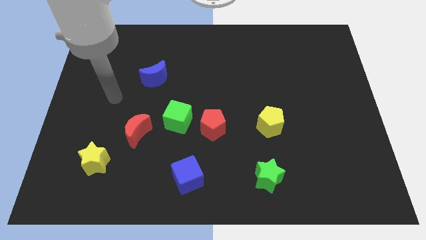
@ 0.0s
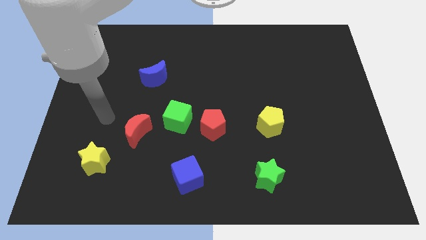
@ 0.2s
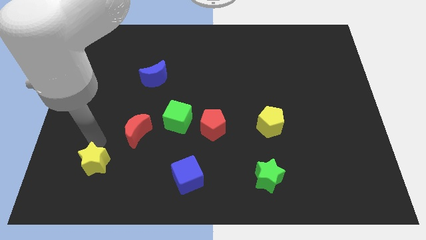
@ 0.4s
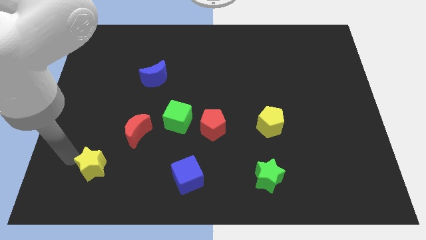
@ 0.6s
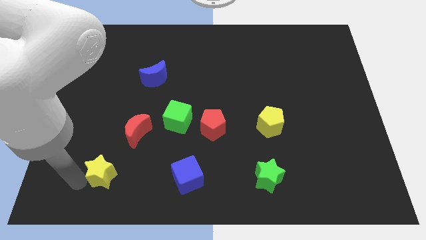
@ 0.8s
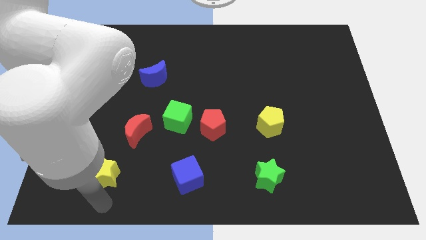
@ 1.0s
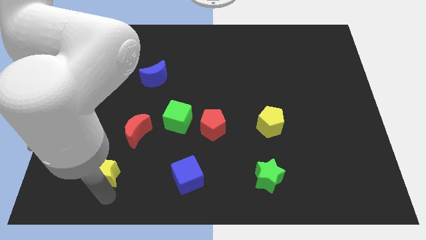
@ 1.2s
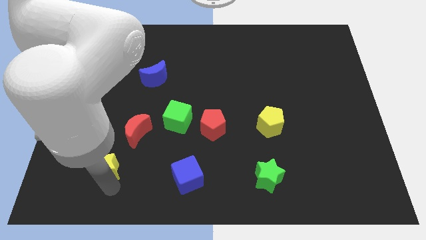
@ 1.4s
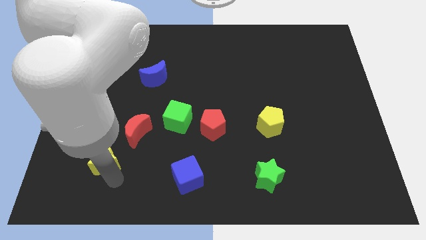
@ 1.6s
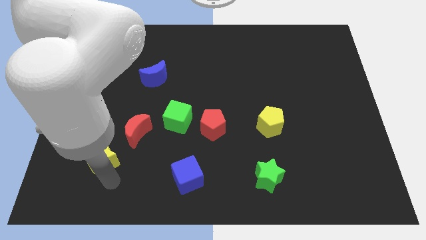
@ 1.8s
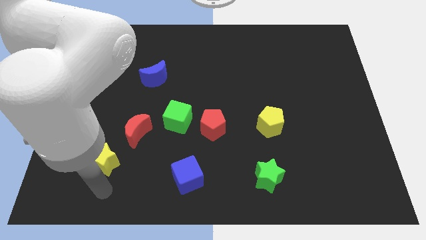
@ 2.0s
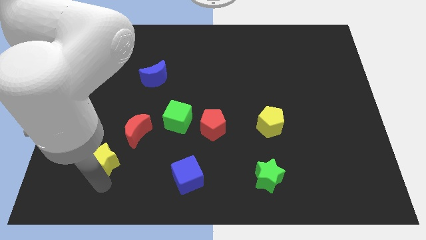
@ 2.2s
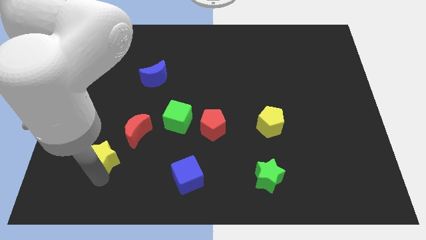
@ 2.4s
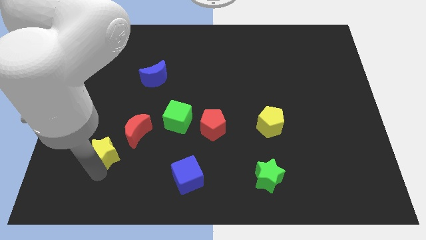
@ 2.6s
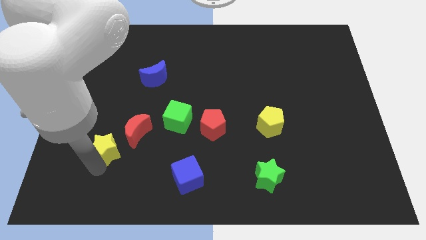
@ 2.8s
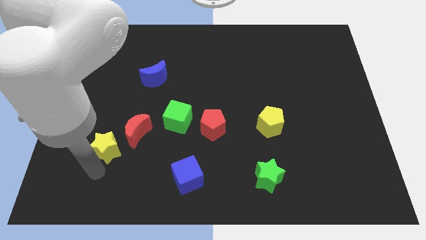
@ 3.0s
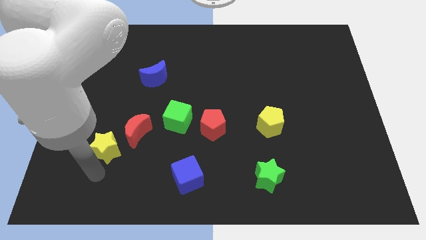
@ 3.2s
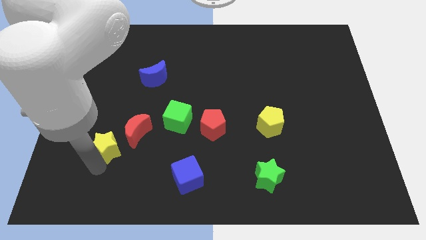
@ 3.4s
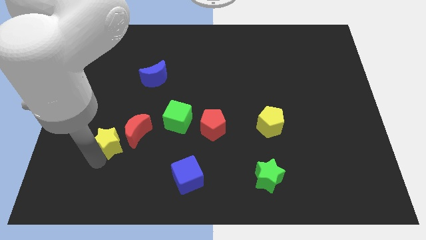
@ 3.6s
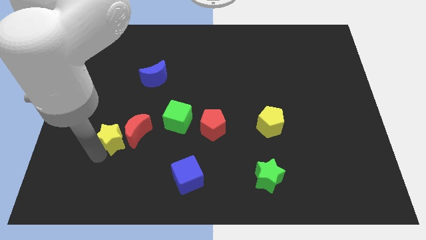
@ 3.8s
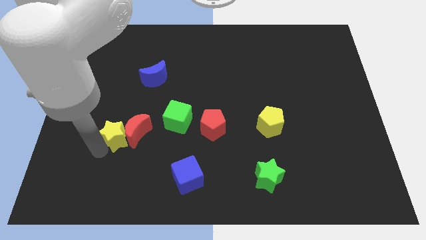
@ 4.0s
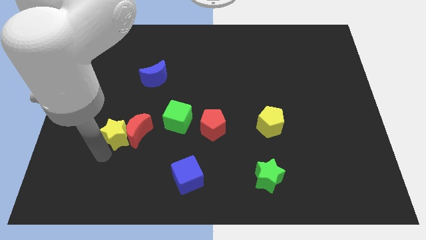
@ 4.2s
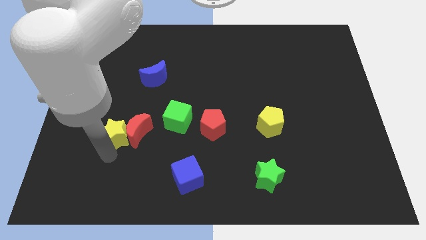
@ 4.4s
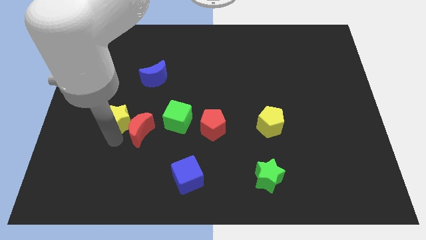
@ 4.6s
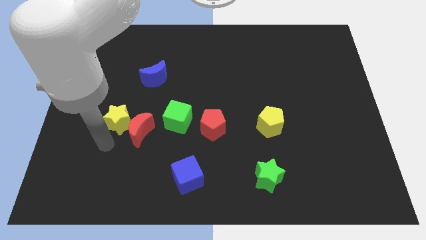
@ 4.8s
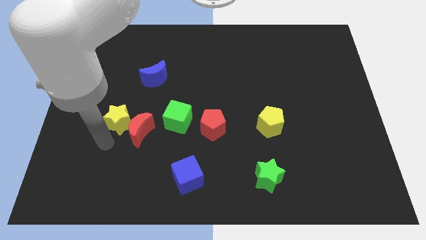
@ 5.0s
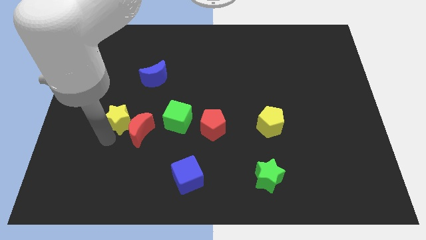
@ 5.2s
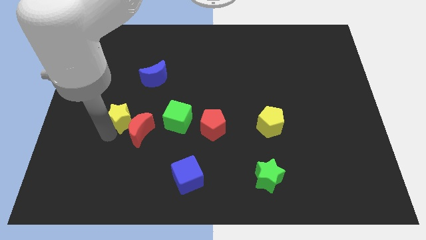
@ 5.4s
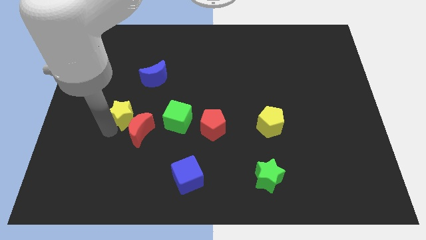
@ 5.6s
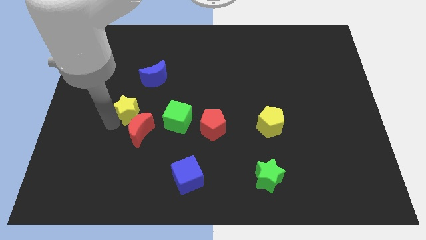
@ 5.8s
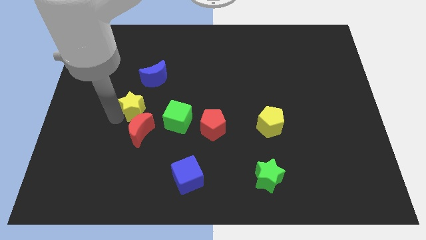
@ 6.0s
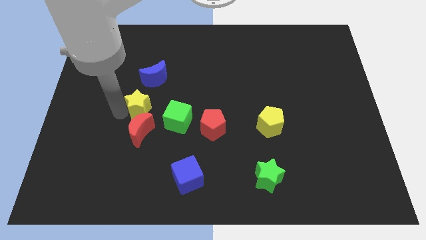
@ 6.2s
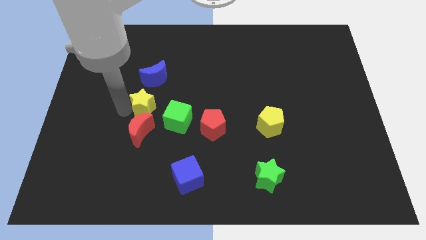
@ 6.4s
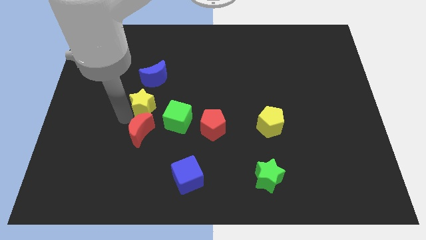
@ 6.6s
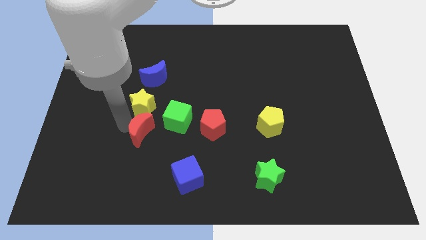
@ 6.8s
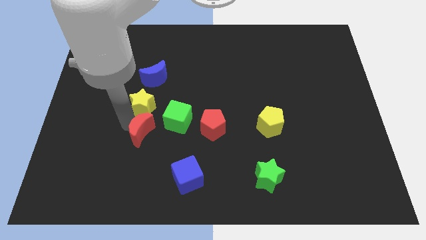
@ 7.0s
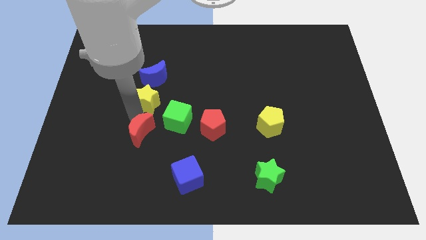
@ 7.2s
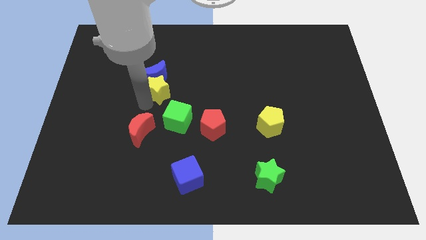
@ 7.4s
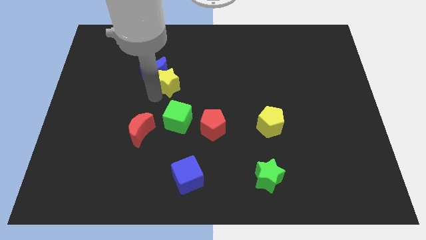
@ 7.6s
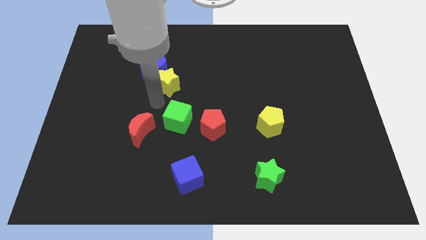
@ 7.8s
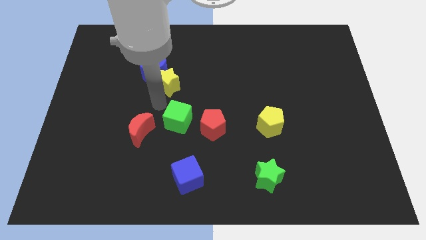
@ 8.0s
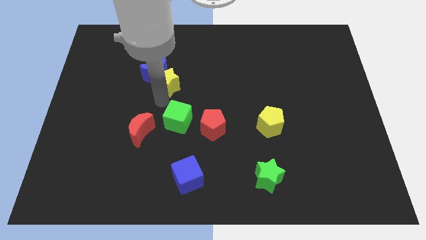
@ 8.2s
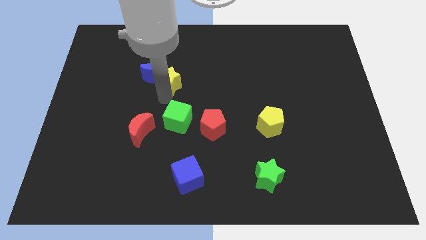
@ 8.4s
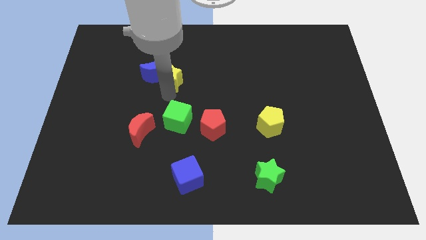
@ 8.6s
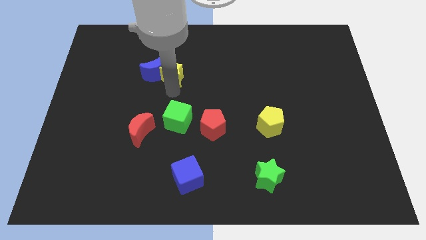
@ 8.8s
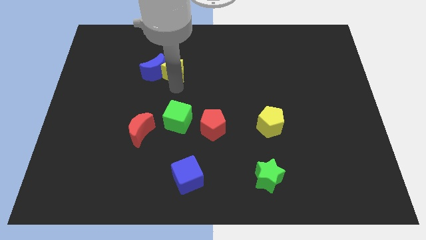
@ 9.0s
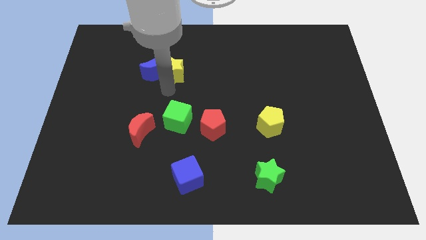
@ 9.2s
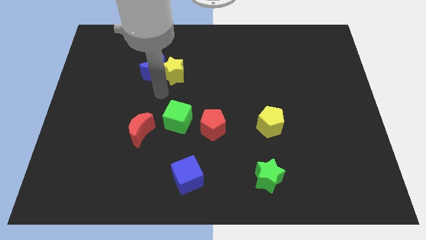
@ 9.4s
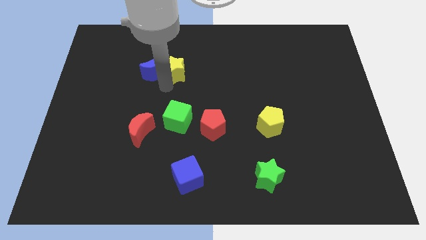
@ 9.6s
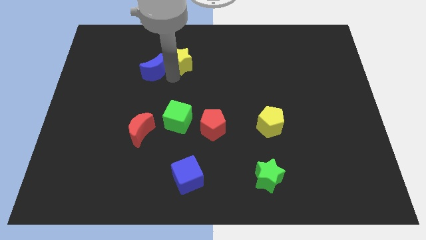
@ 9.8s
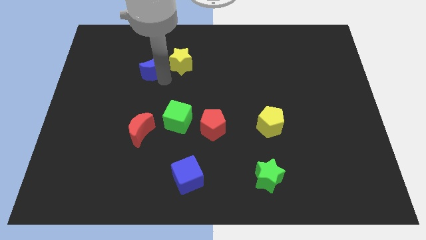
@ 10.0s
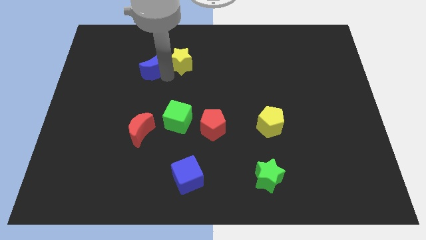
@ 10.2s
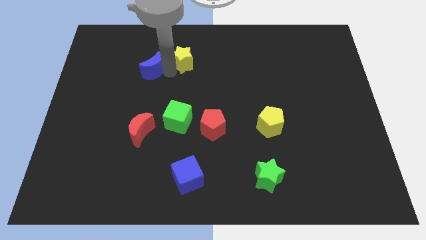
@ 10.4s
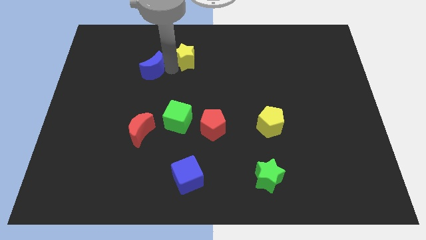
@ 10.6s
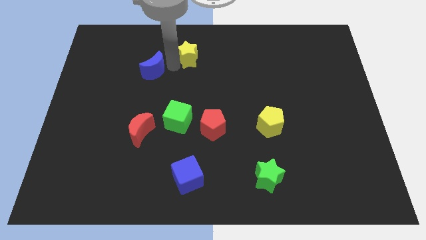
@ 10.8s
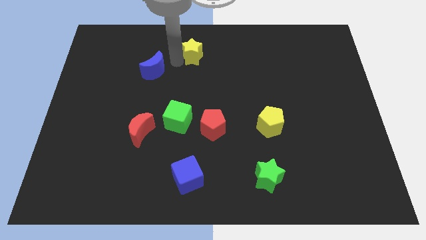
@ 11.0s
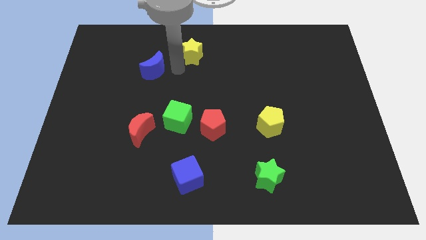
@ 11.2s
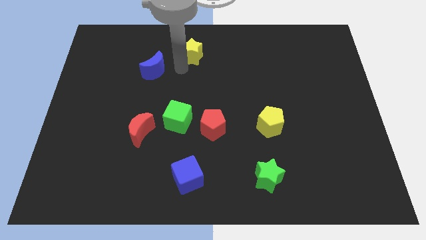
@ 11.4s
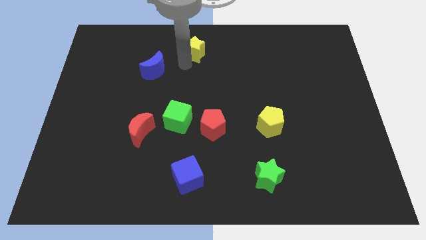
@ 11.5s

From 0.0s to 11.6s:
move the yellow star to the top side
